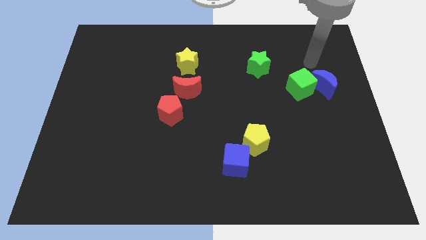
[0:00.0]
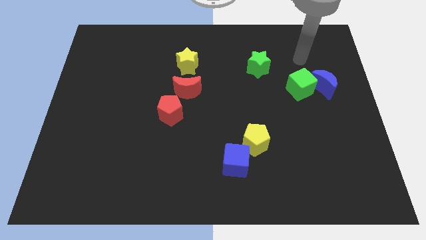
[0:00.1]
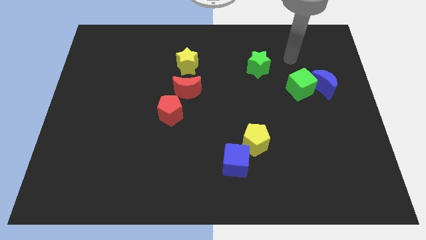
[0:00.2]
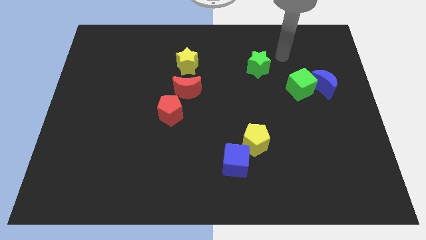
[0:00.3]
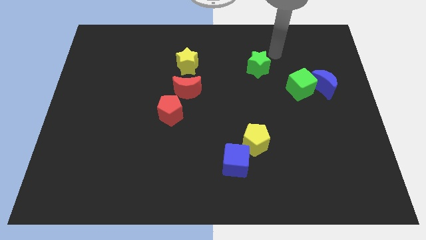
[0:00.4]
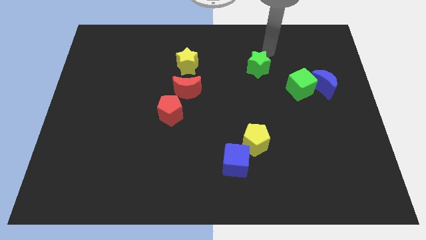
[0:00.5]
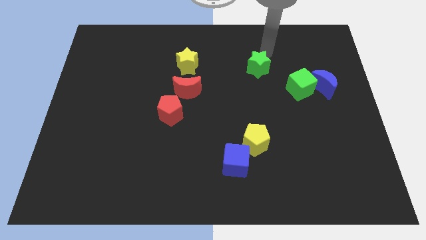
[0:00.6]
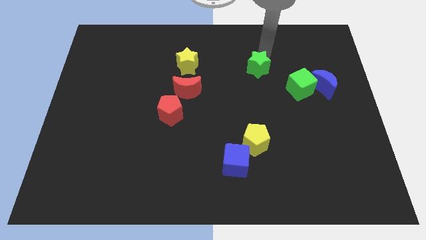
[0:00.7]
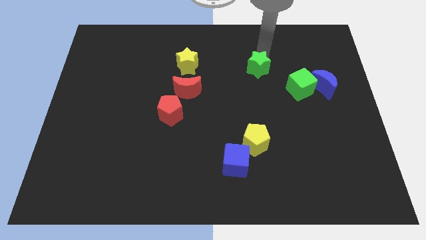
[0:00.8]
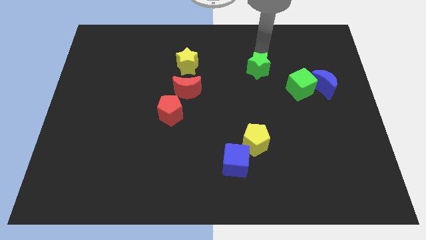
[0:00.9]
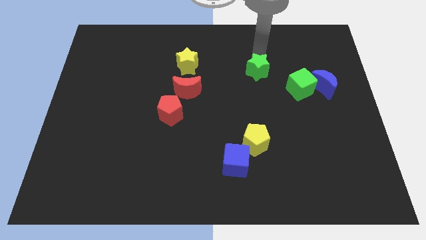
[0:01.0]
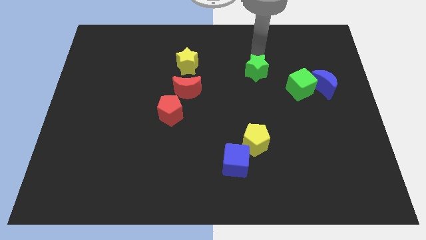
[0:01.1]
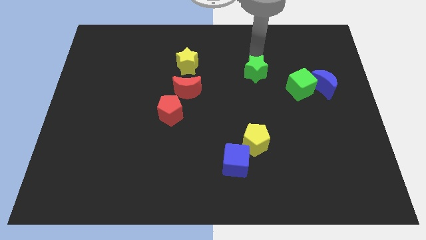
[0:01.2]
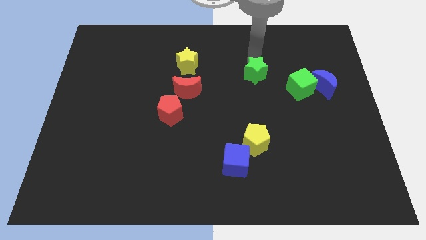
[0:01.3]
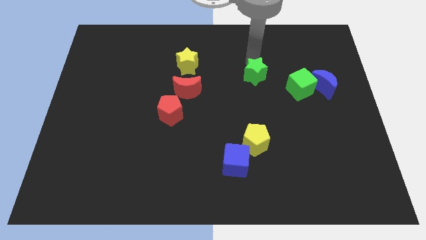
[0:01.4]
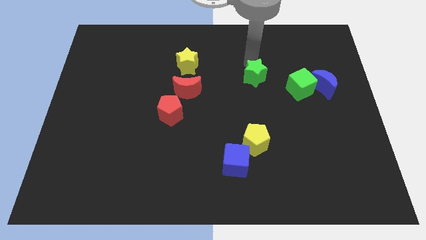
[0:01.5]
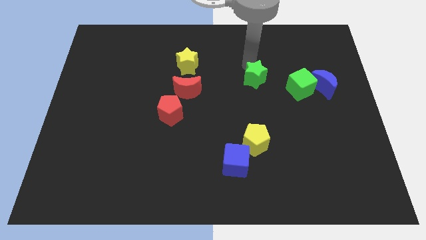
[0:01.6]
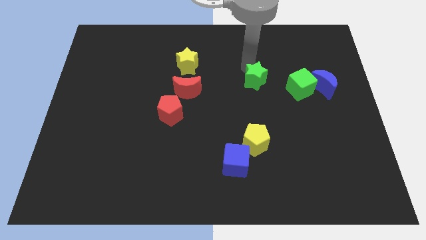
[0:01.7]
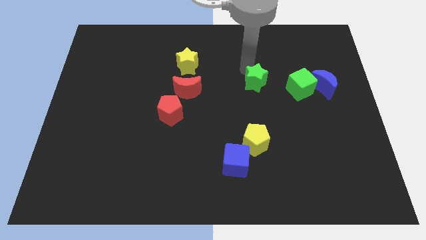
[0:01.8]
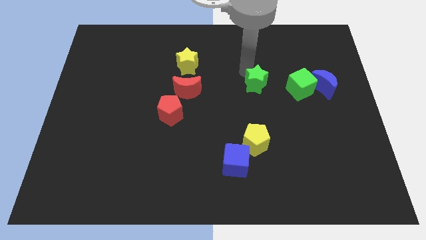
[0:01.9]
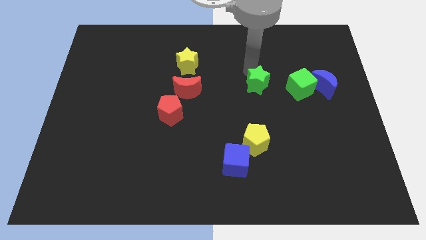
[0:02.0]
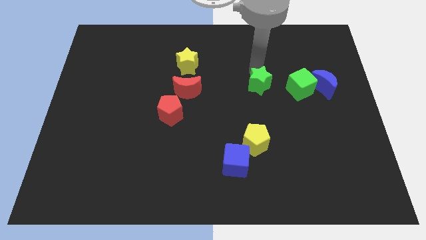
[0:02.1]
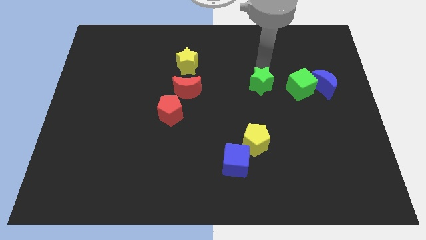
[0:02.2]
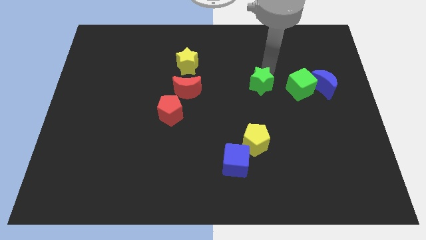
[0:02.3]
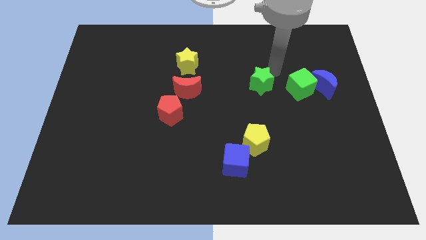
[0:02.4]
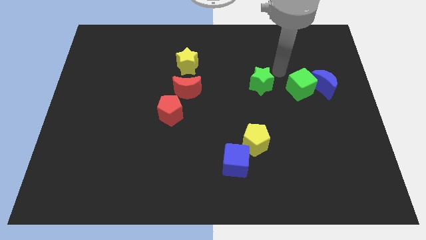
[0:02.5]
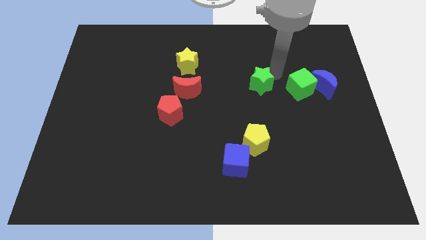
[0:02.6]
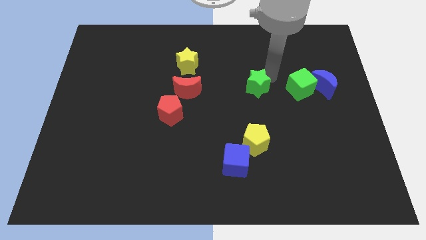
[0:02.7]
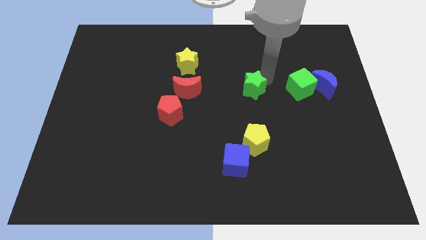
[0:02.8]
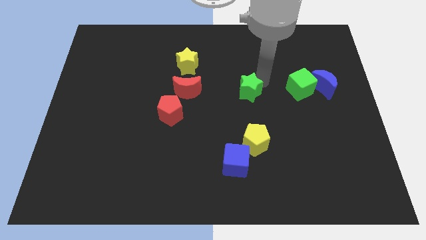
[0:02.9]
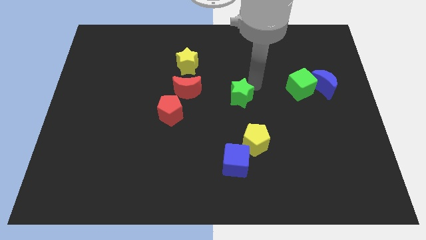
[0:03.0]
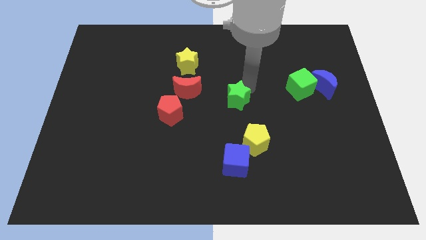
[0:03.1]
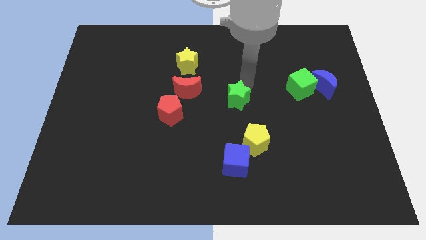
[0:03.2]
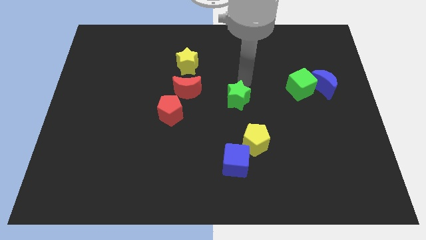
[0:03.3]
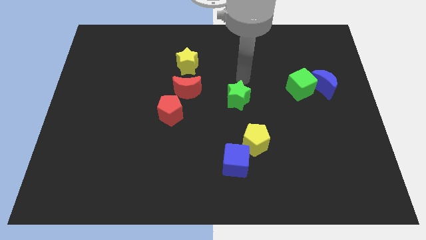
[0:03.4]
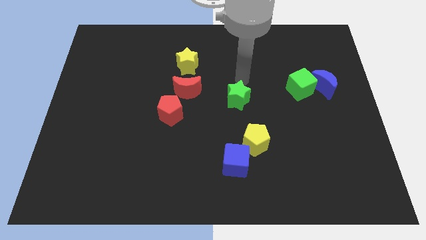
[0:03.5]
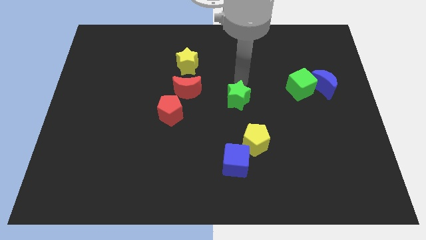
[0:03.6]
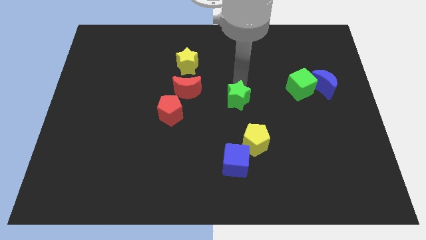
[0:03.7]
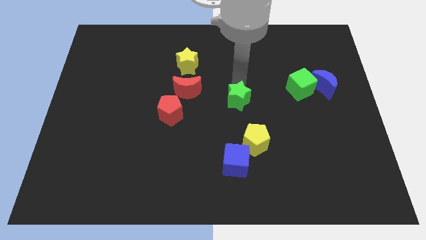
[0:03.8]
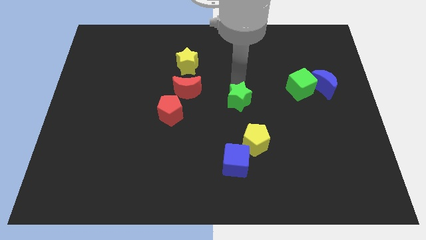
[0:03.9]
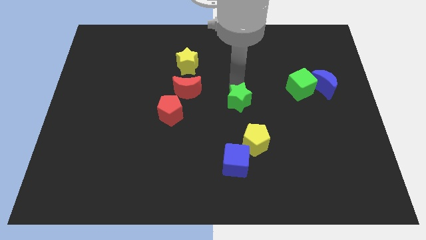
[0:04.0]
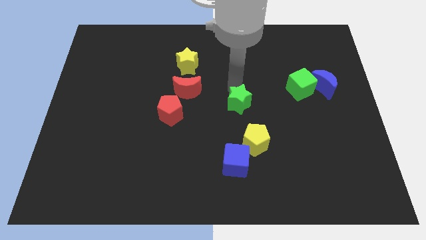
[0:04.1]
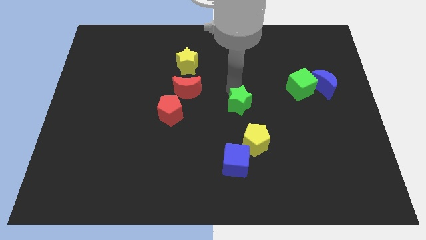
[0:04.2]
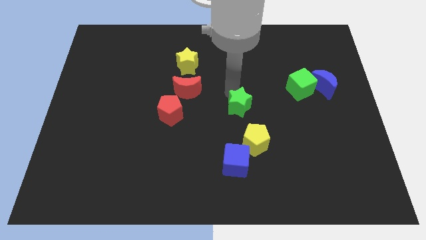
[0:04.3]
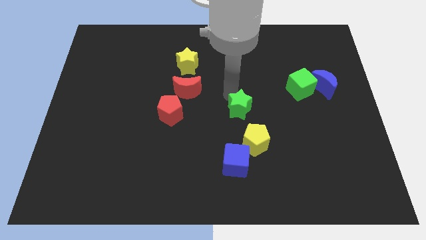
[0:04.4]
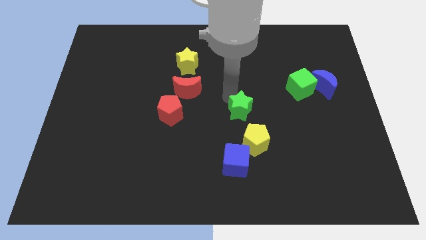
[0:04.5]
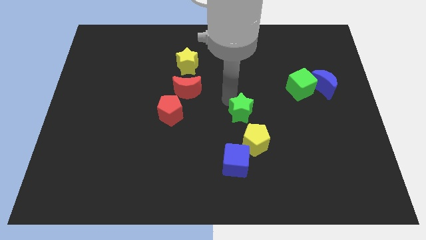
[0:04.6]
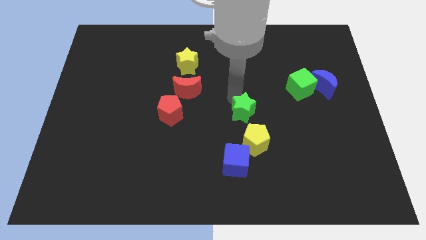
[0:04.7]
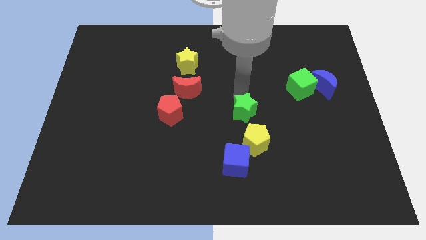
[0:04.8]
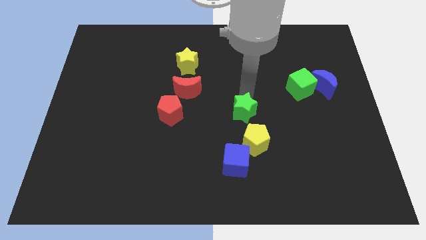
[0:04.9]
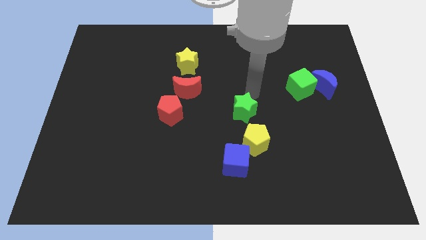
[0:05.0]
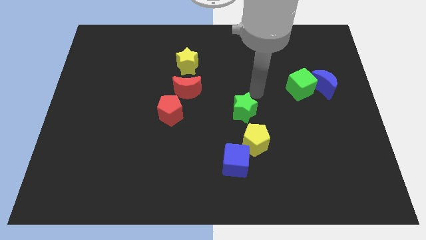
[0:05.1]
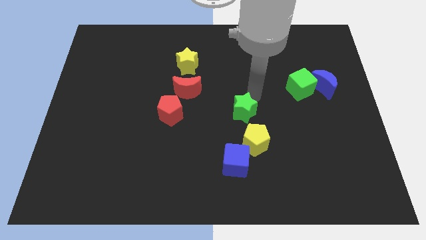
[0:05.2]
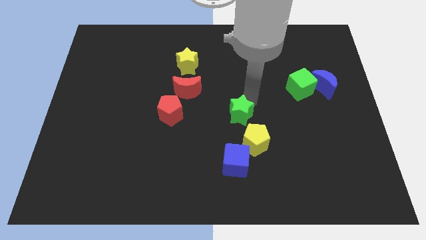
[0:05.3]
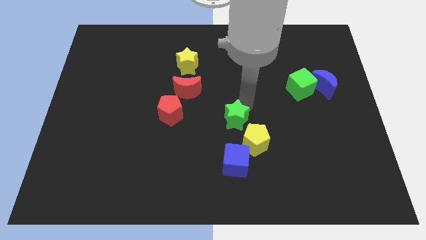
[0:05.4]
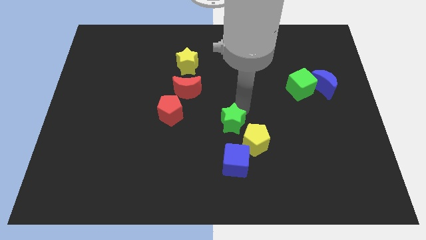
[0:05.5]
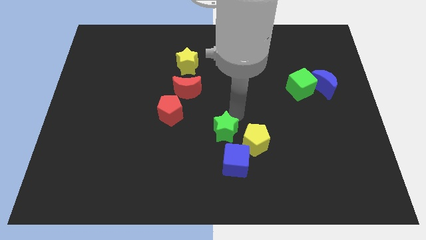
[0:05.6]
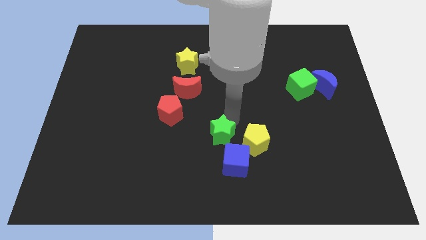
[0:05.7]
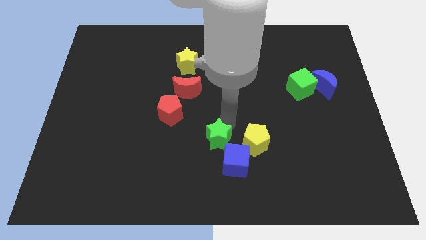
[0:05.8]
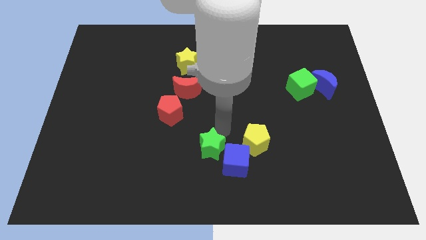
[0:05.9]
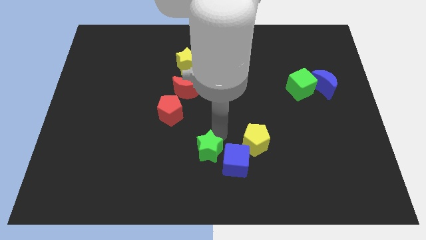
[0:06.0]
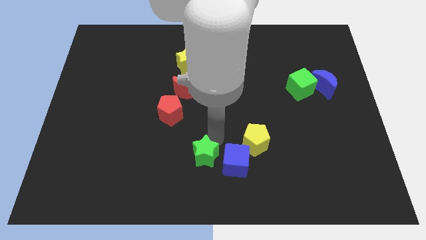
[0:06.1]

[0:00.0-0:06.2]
push the green star to the bottom side
